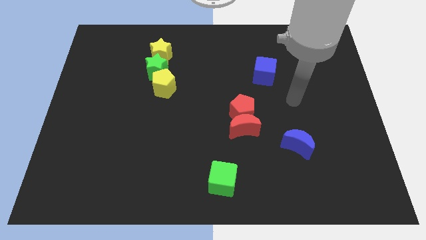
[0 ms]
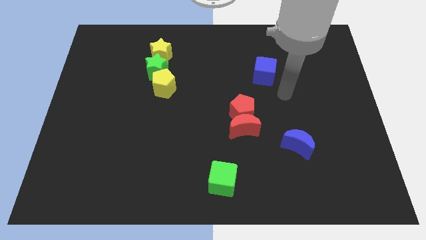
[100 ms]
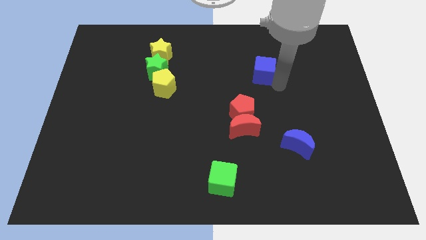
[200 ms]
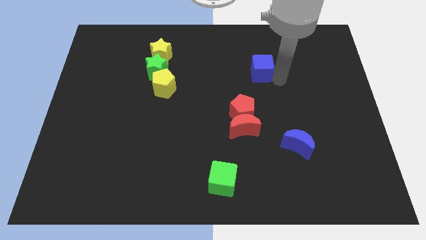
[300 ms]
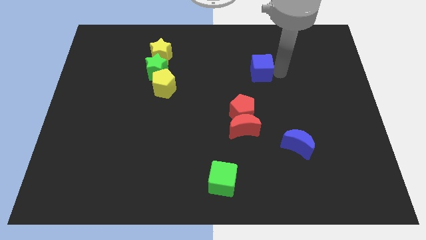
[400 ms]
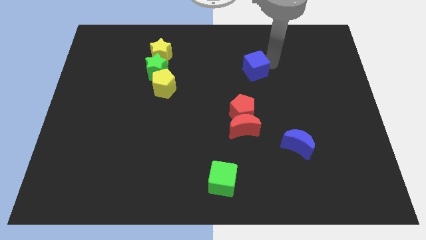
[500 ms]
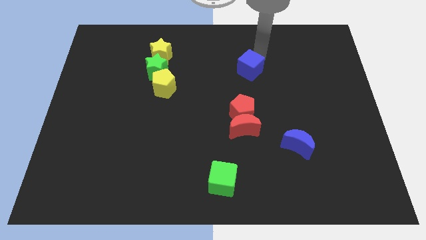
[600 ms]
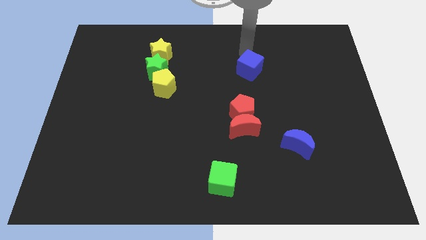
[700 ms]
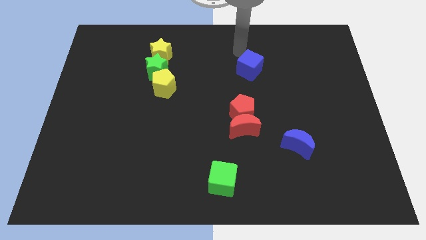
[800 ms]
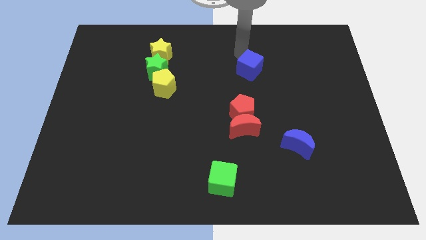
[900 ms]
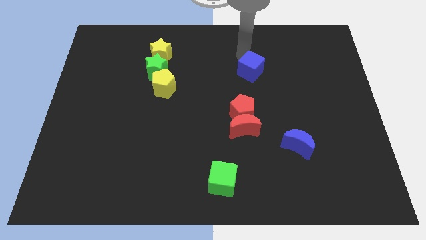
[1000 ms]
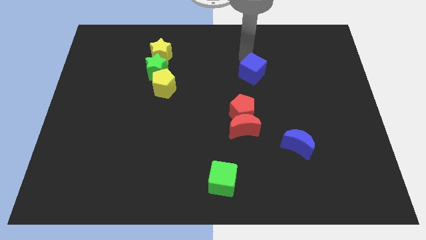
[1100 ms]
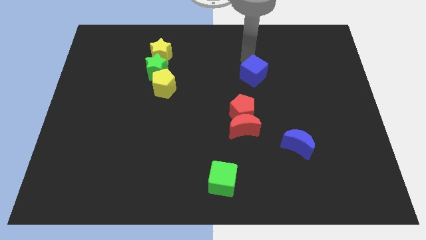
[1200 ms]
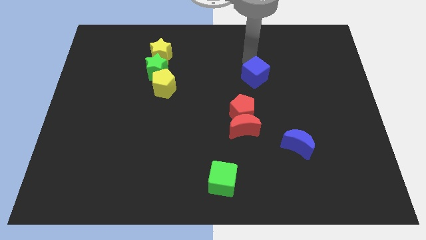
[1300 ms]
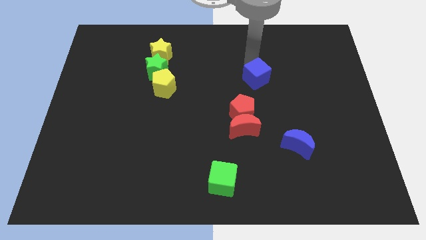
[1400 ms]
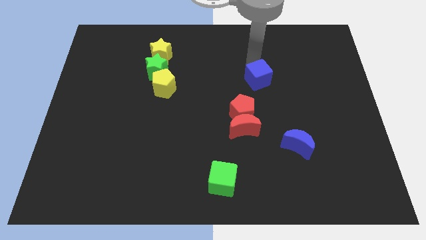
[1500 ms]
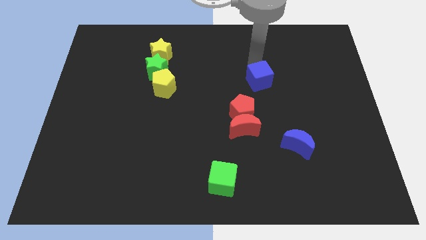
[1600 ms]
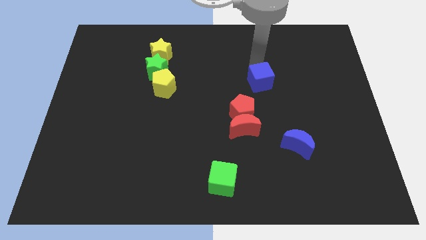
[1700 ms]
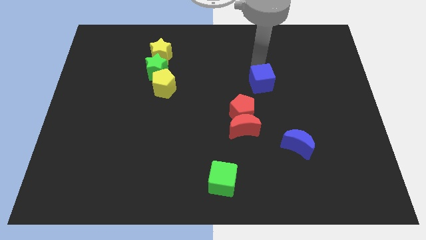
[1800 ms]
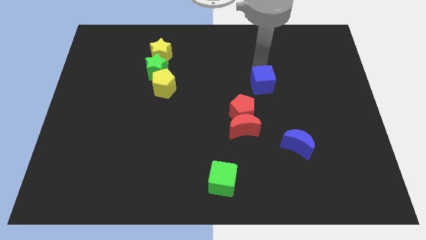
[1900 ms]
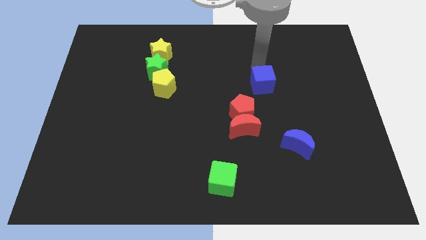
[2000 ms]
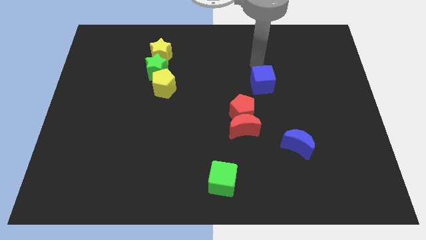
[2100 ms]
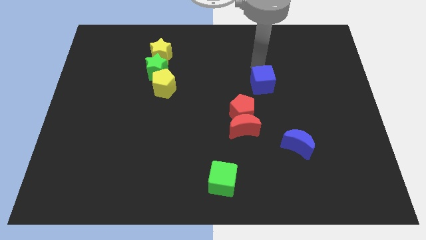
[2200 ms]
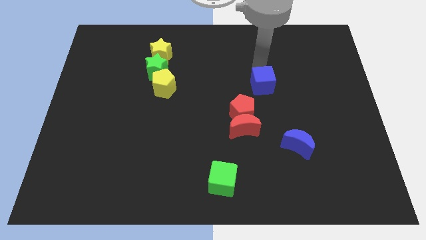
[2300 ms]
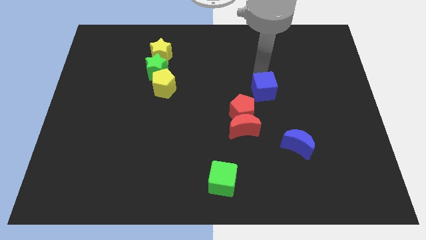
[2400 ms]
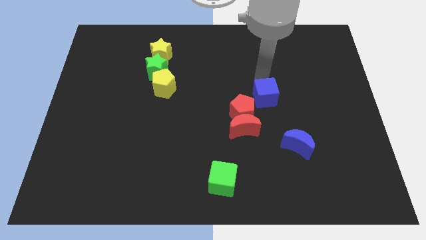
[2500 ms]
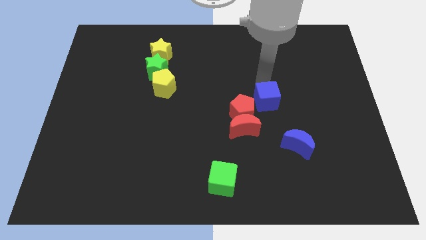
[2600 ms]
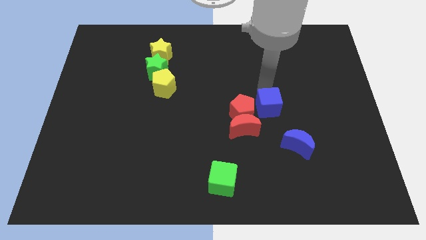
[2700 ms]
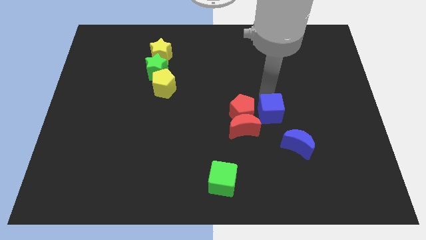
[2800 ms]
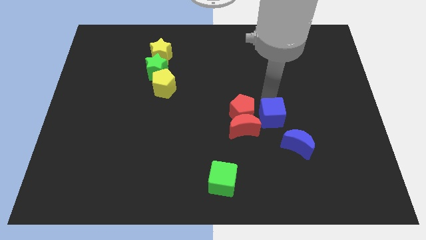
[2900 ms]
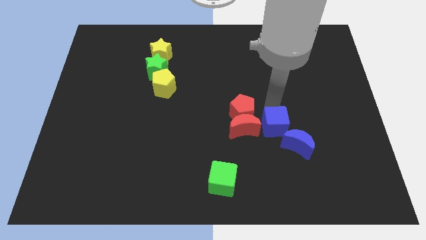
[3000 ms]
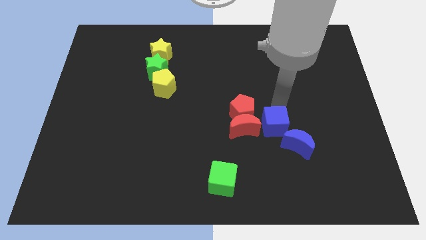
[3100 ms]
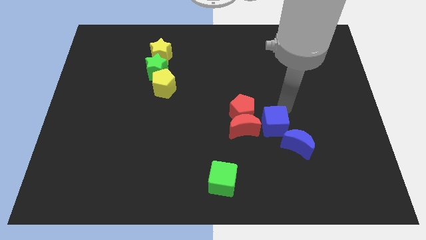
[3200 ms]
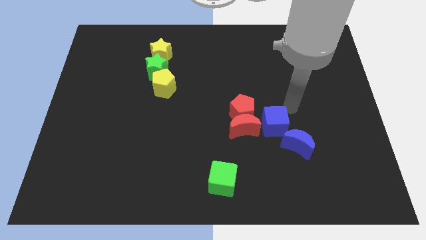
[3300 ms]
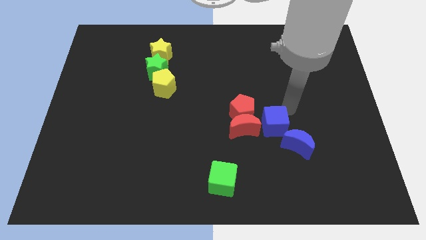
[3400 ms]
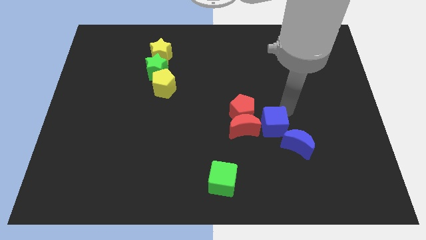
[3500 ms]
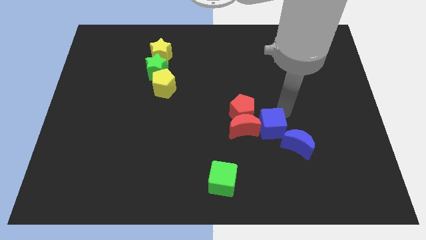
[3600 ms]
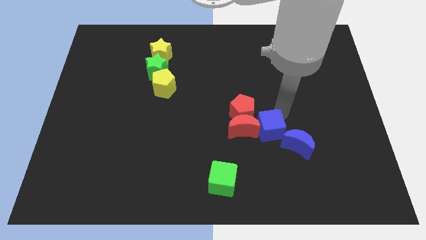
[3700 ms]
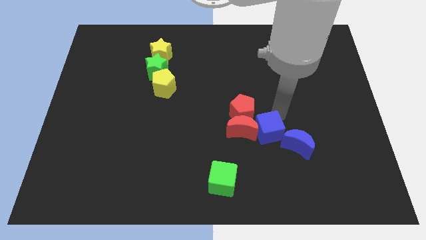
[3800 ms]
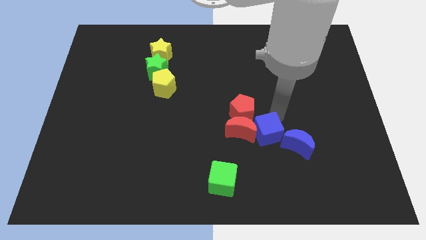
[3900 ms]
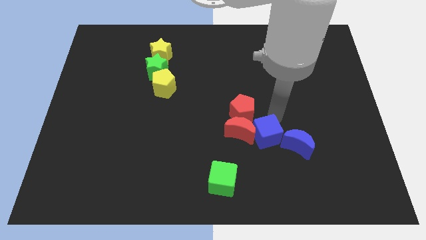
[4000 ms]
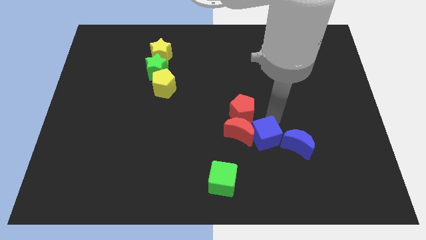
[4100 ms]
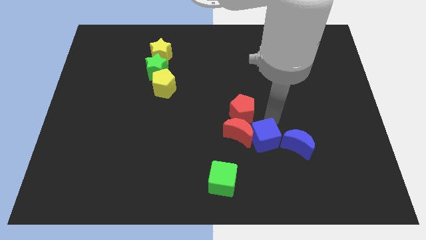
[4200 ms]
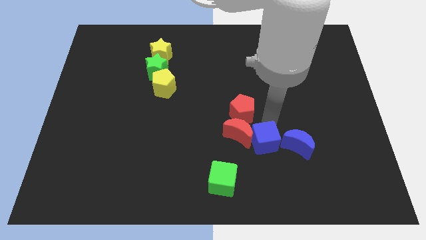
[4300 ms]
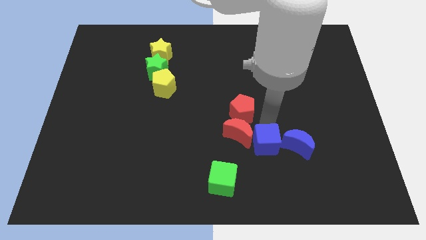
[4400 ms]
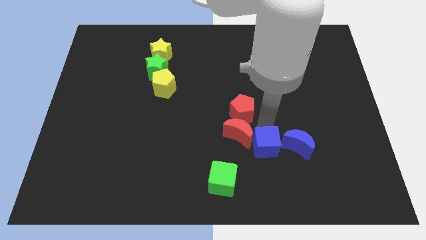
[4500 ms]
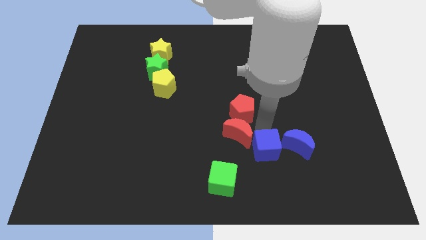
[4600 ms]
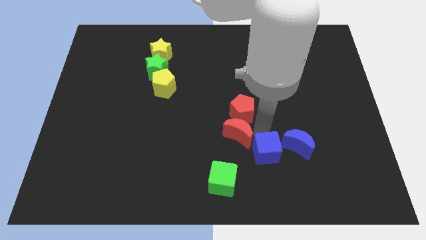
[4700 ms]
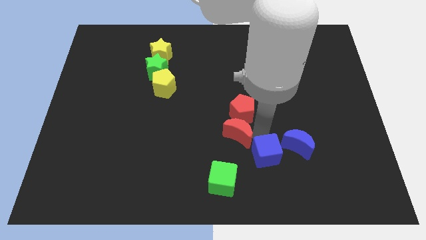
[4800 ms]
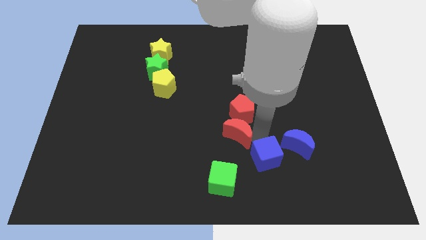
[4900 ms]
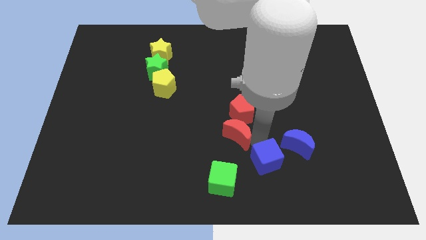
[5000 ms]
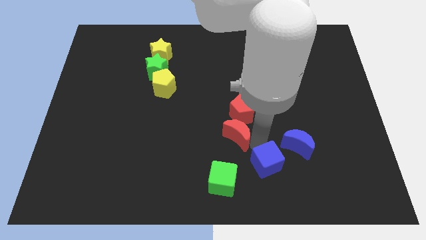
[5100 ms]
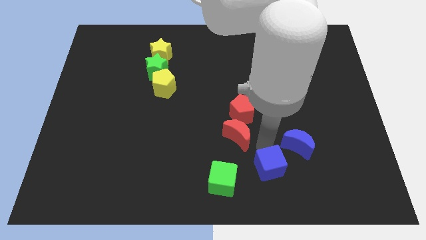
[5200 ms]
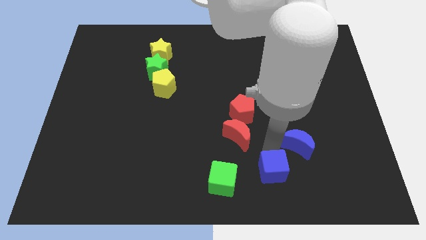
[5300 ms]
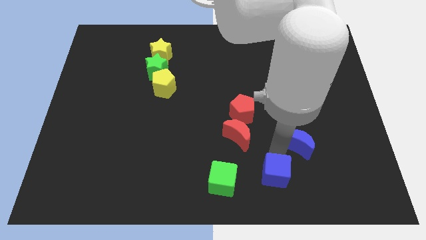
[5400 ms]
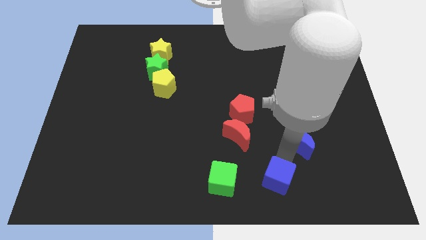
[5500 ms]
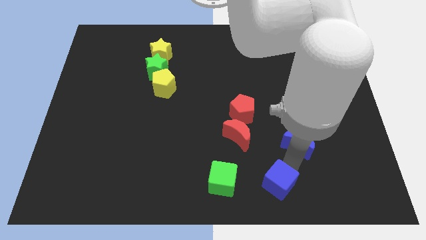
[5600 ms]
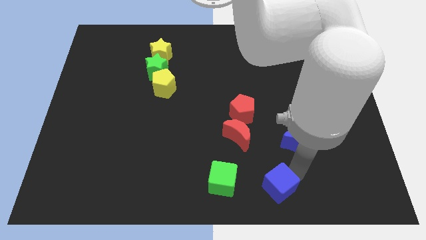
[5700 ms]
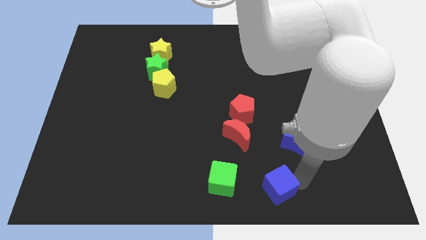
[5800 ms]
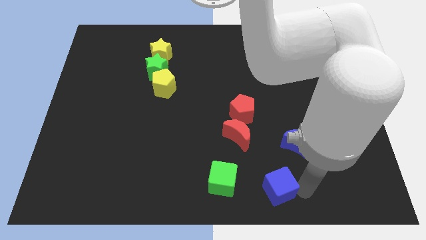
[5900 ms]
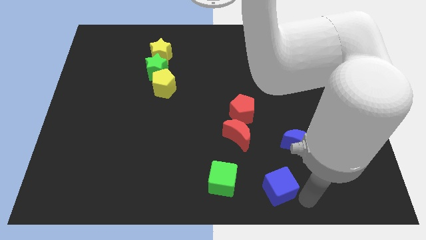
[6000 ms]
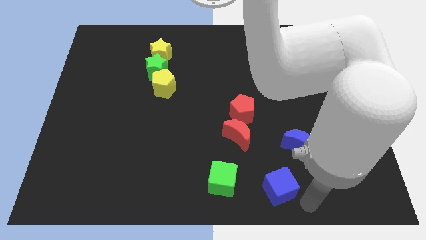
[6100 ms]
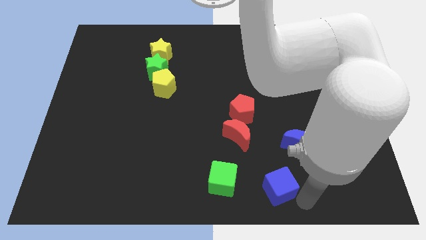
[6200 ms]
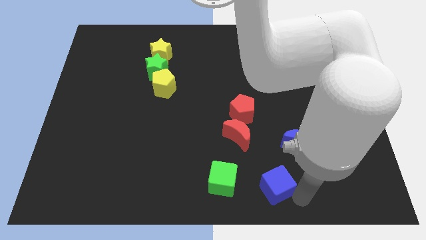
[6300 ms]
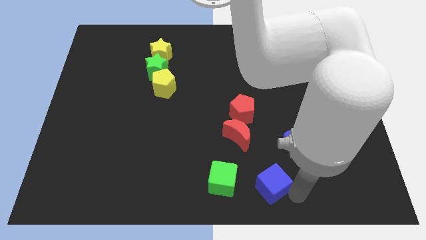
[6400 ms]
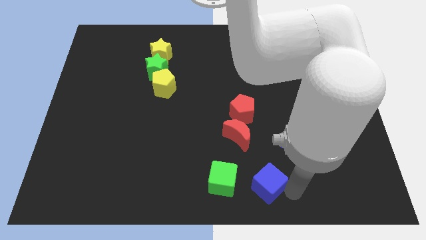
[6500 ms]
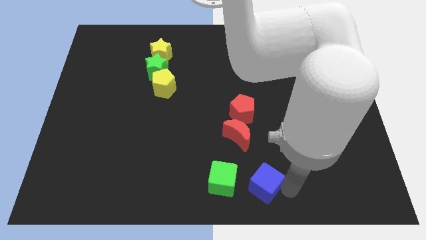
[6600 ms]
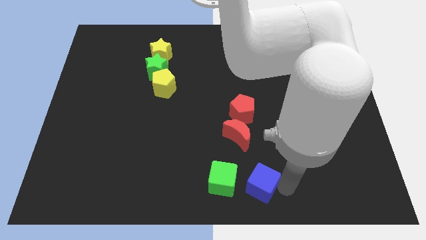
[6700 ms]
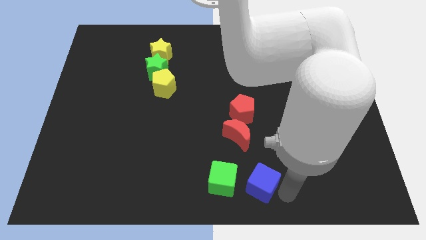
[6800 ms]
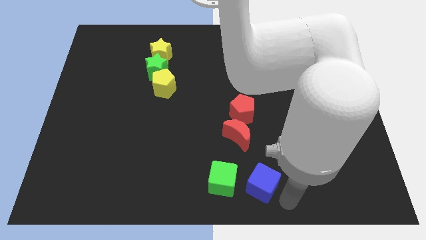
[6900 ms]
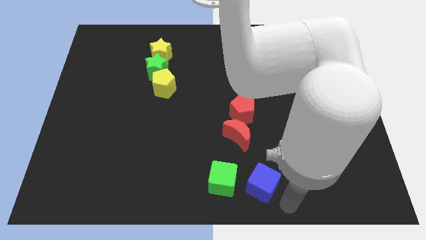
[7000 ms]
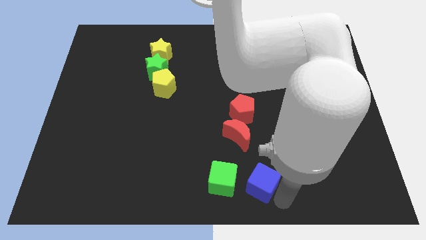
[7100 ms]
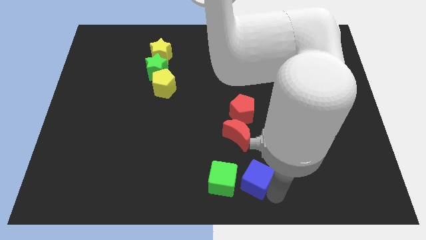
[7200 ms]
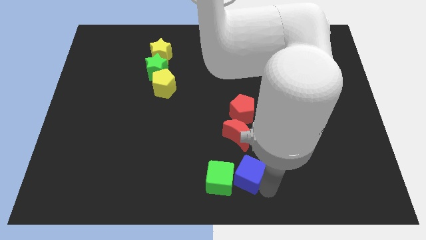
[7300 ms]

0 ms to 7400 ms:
push the blue cube next to the green cube

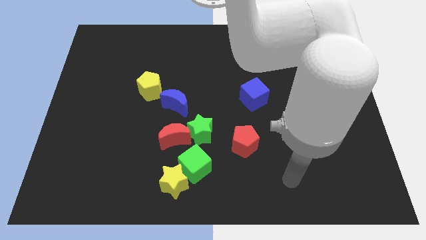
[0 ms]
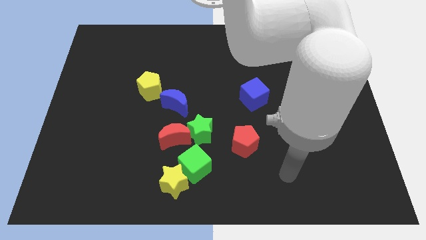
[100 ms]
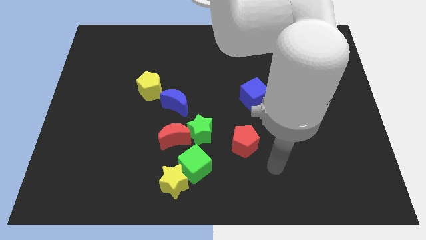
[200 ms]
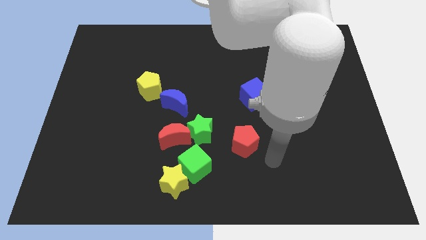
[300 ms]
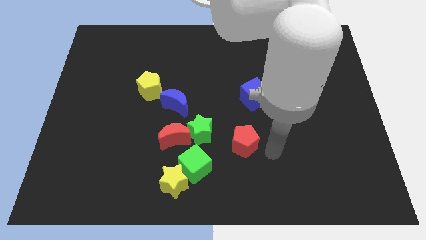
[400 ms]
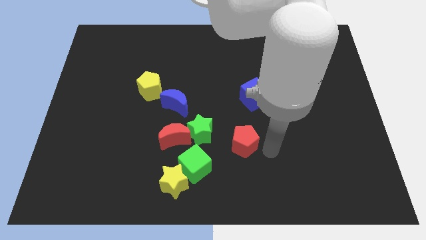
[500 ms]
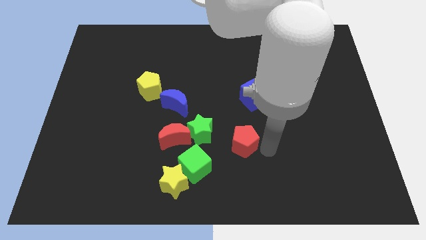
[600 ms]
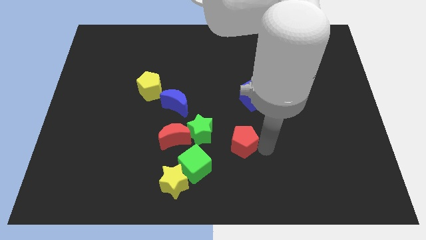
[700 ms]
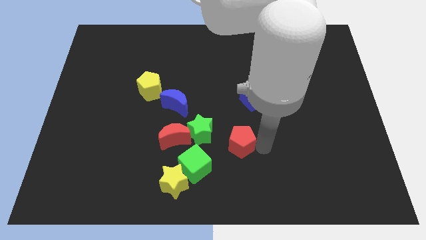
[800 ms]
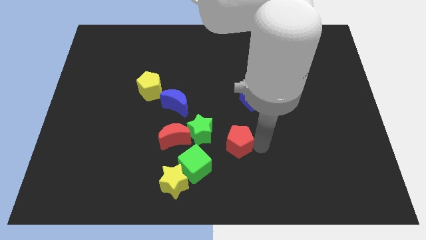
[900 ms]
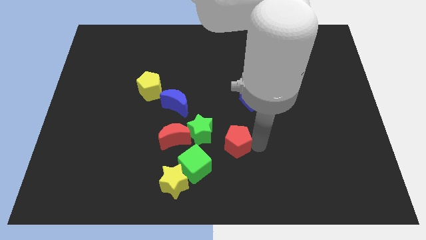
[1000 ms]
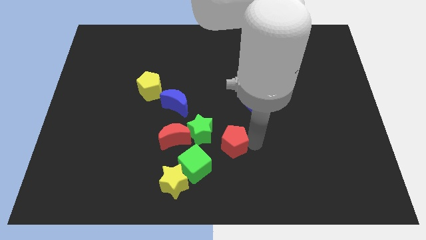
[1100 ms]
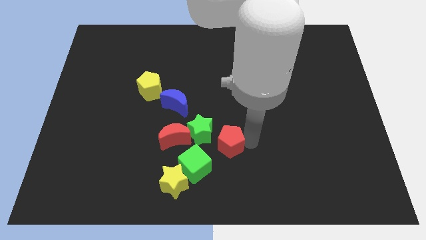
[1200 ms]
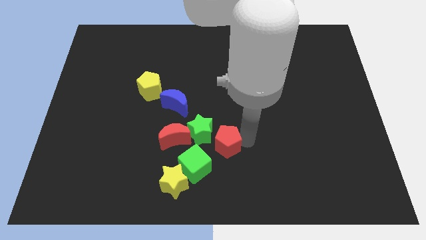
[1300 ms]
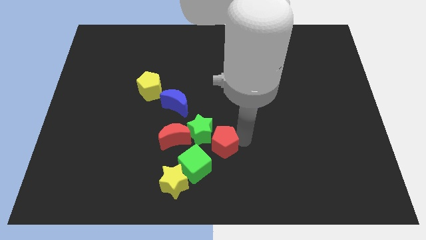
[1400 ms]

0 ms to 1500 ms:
push the red pentagon to the green star
